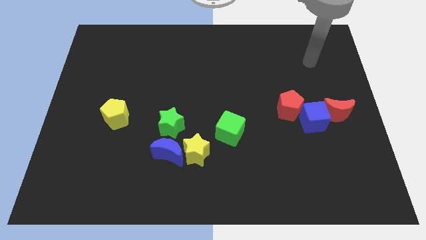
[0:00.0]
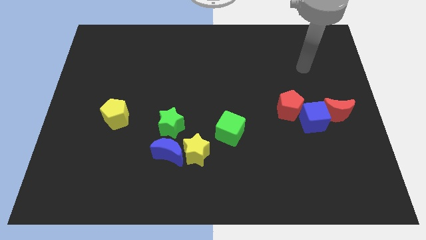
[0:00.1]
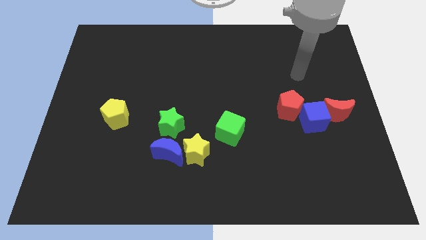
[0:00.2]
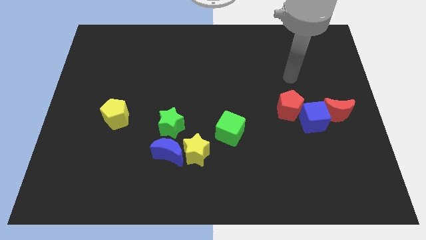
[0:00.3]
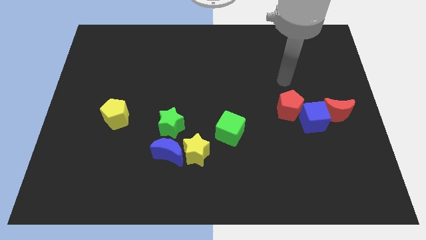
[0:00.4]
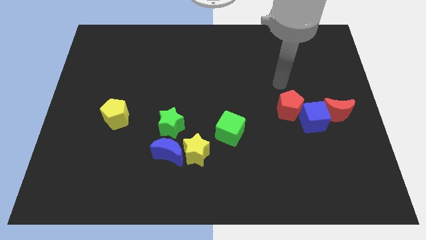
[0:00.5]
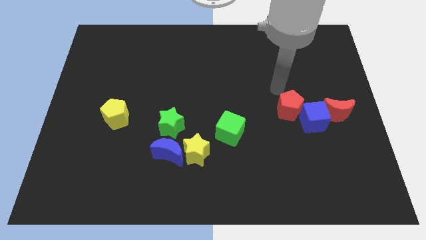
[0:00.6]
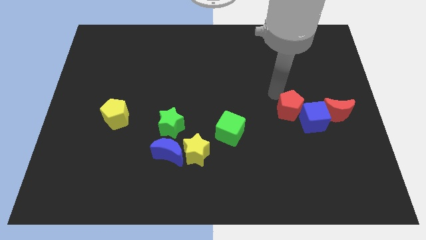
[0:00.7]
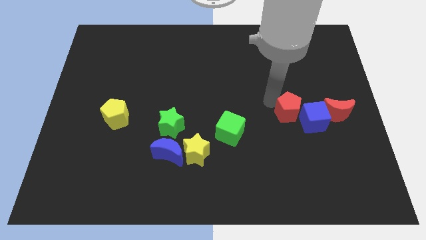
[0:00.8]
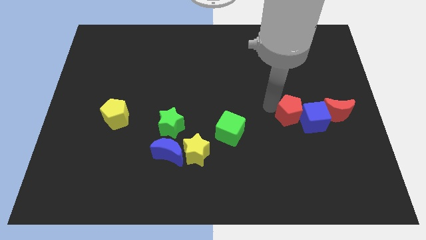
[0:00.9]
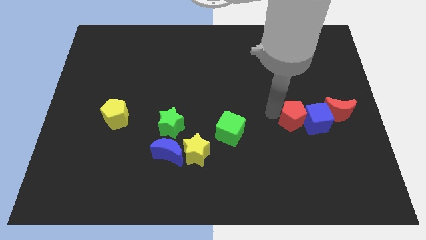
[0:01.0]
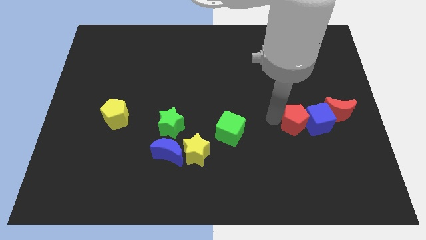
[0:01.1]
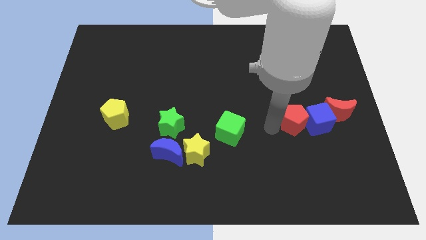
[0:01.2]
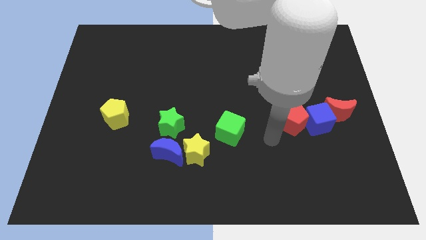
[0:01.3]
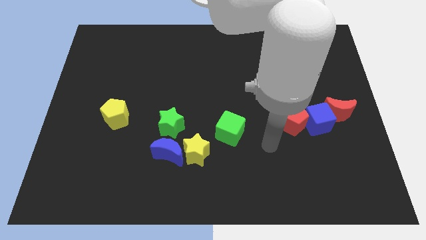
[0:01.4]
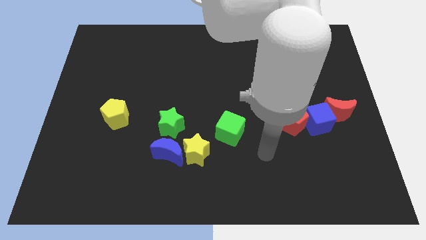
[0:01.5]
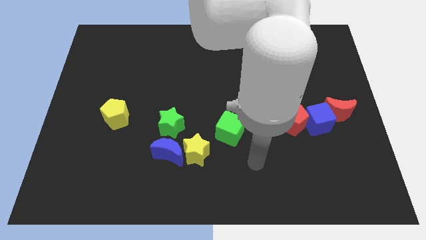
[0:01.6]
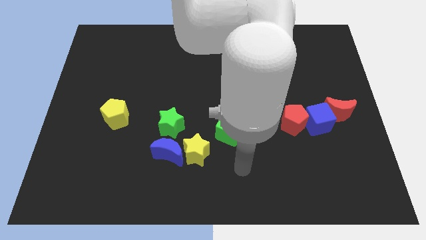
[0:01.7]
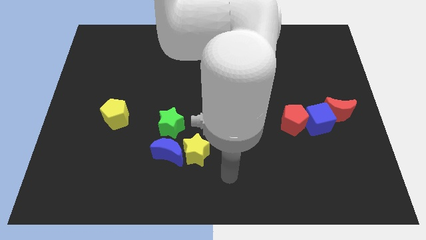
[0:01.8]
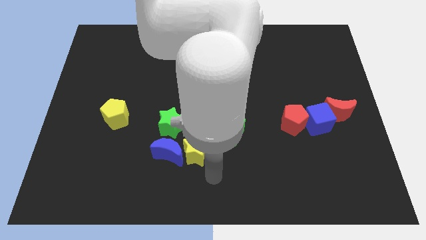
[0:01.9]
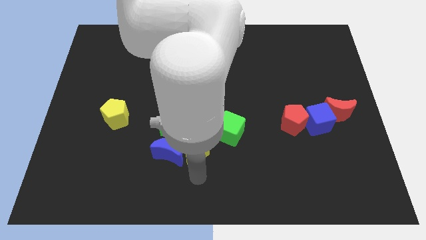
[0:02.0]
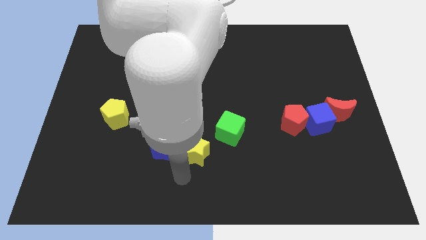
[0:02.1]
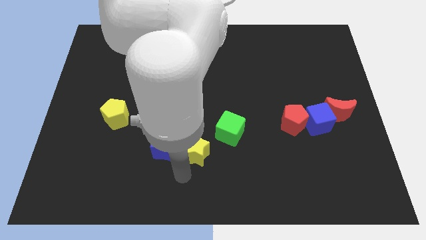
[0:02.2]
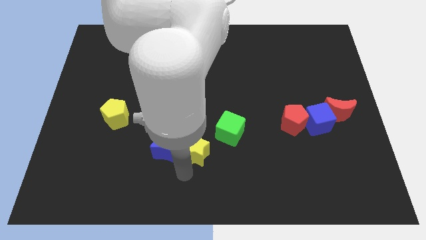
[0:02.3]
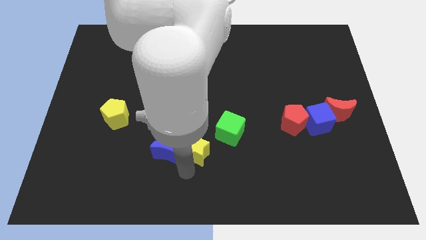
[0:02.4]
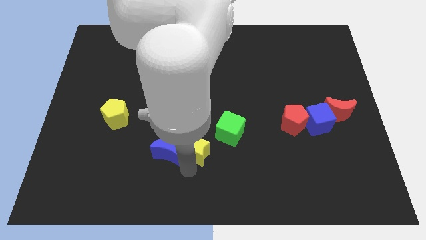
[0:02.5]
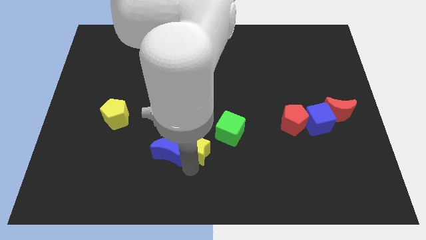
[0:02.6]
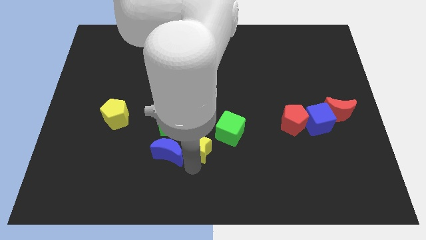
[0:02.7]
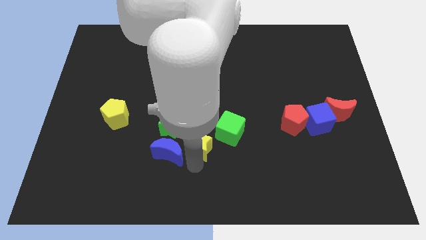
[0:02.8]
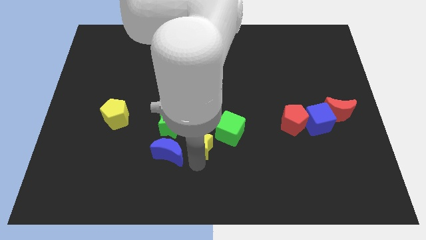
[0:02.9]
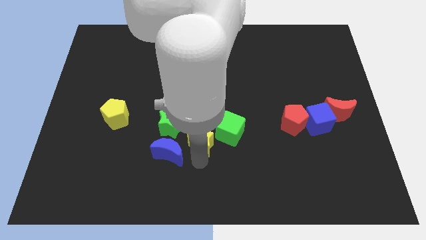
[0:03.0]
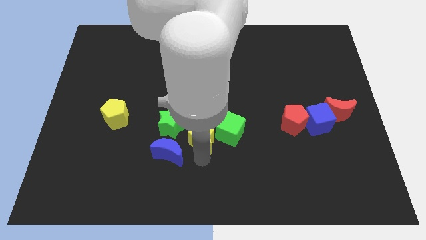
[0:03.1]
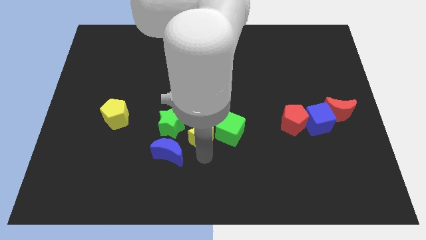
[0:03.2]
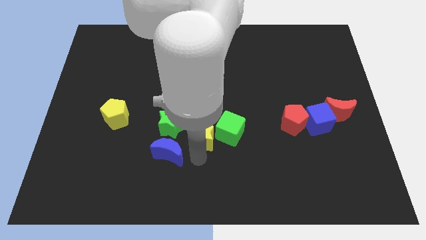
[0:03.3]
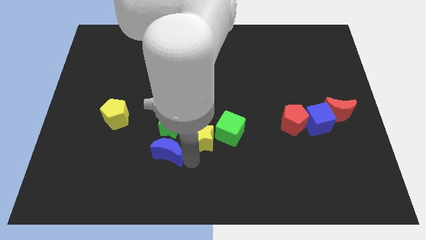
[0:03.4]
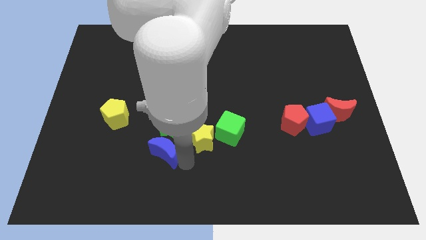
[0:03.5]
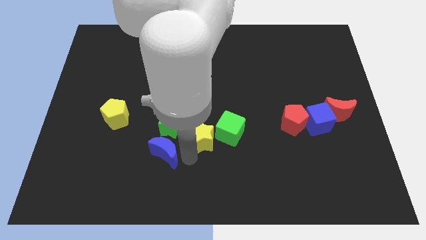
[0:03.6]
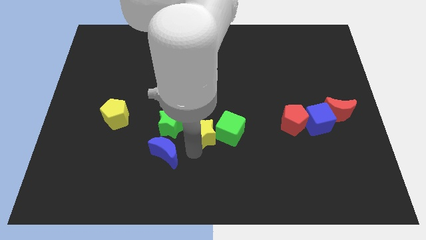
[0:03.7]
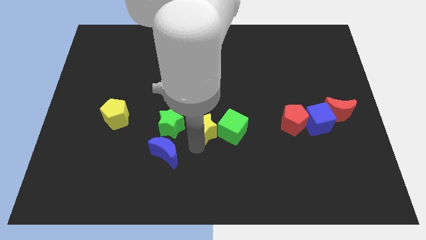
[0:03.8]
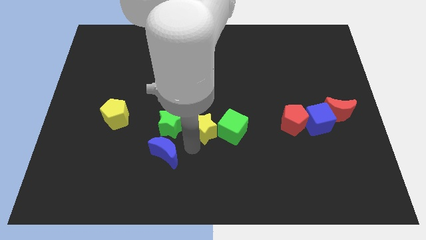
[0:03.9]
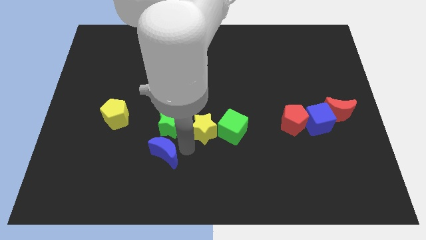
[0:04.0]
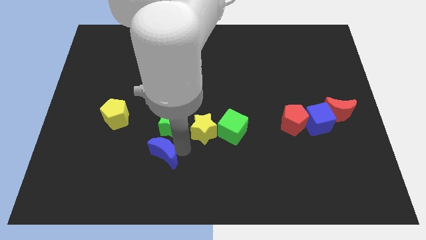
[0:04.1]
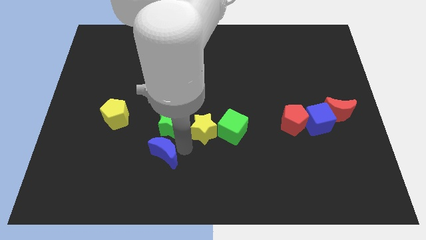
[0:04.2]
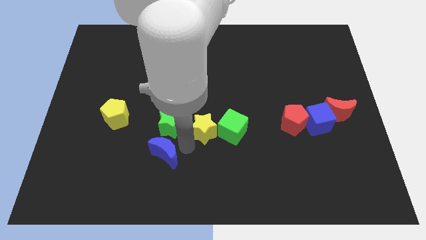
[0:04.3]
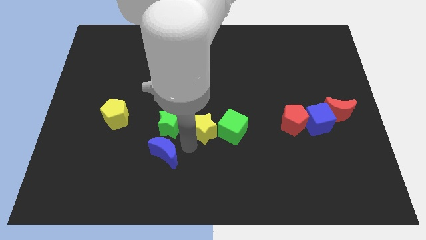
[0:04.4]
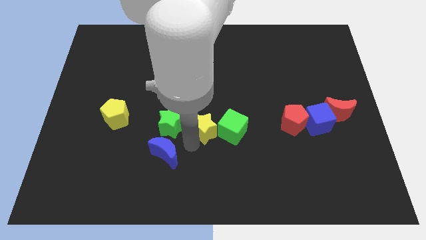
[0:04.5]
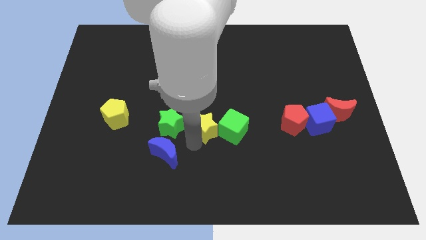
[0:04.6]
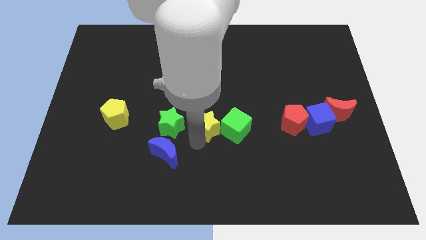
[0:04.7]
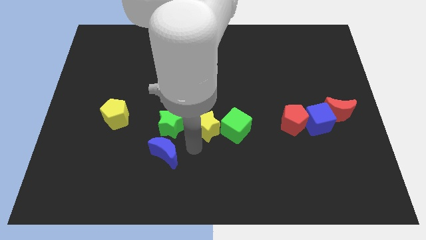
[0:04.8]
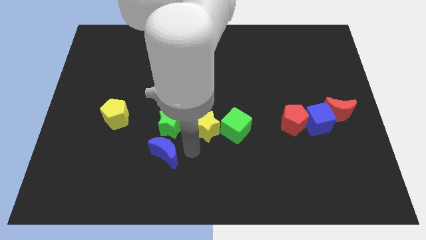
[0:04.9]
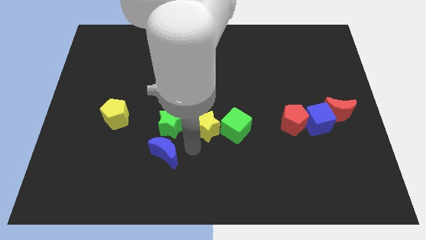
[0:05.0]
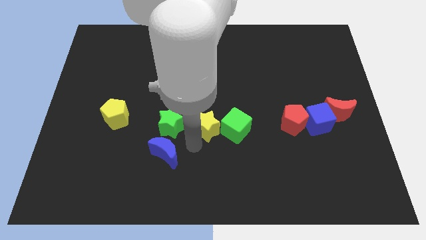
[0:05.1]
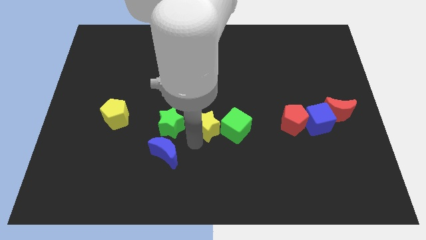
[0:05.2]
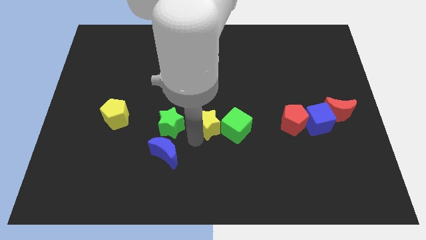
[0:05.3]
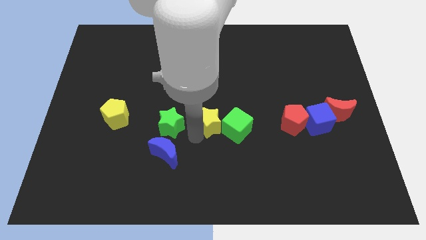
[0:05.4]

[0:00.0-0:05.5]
slightly slide the yellow star upwards and right diagonally

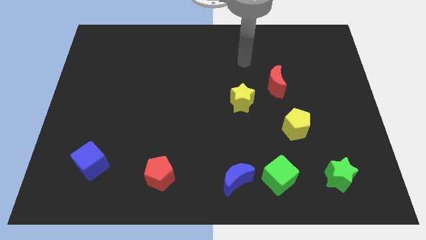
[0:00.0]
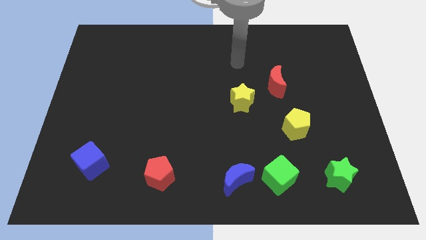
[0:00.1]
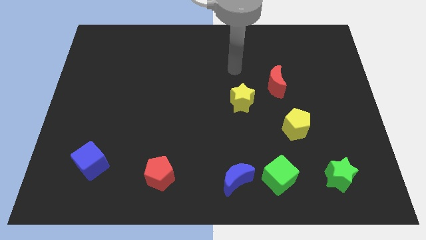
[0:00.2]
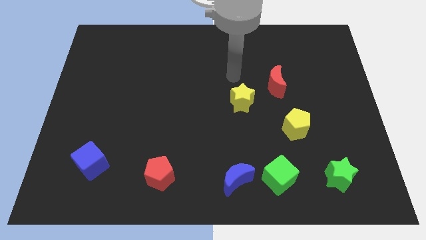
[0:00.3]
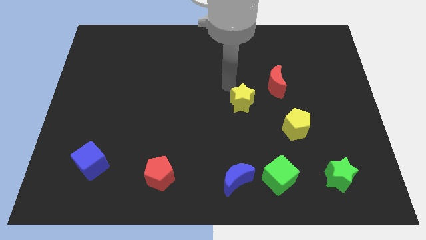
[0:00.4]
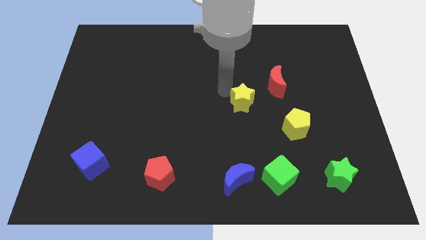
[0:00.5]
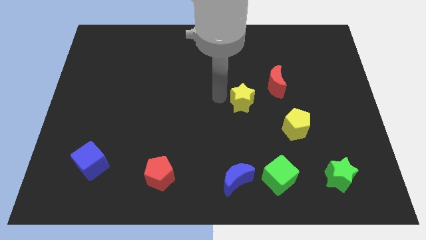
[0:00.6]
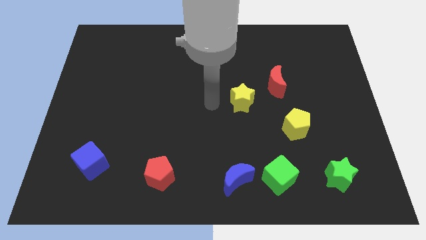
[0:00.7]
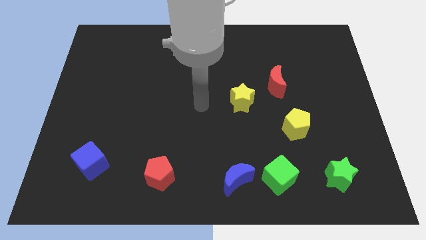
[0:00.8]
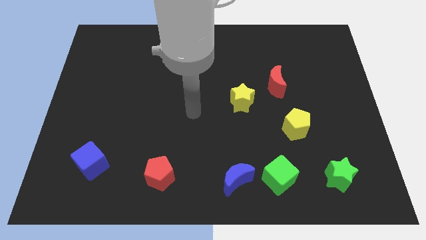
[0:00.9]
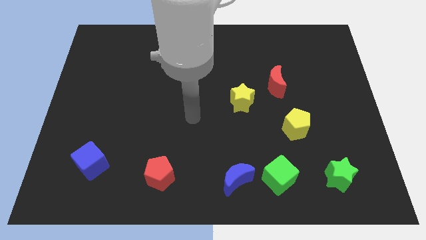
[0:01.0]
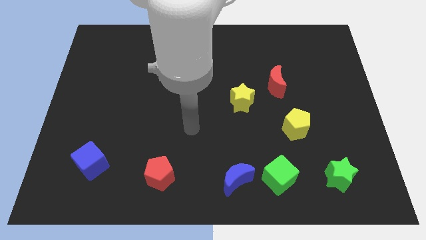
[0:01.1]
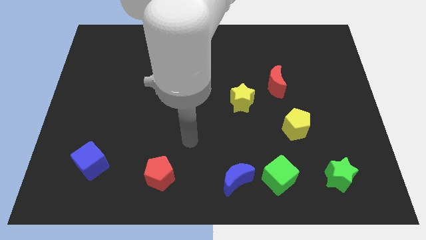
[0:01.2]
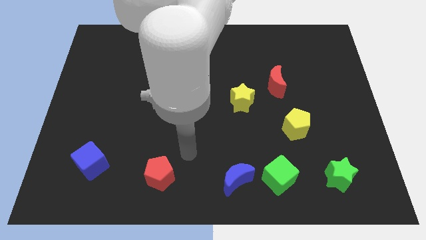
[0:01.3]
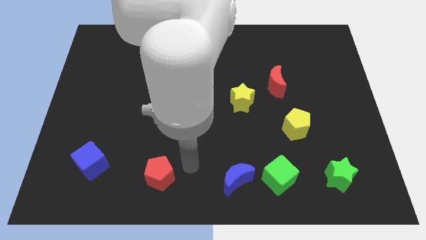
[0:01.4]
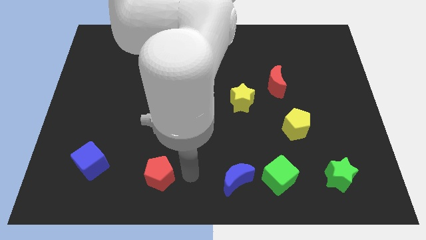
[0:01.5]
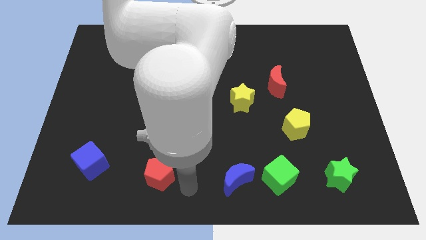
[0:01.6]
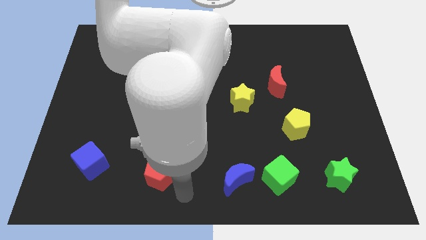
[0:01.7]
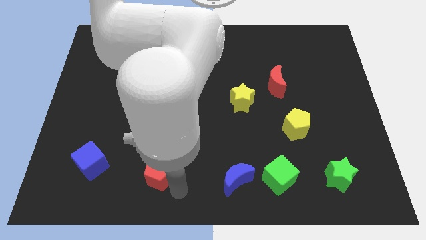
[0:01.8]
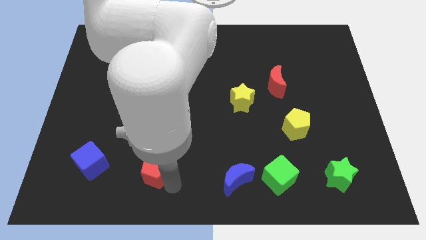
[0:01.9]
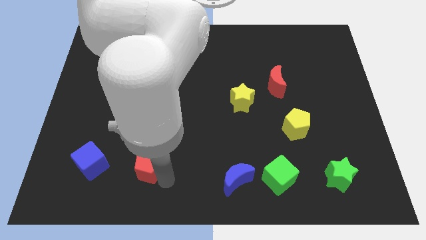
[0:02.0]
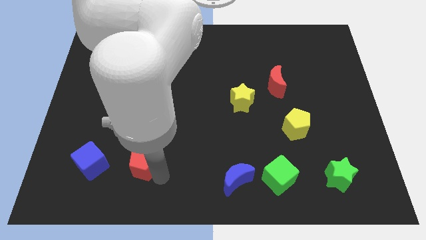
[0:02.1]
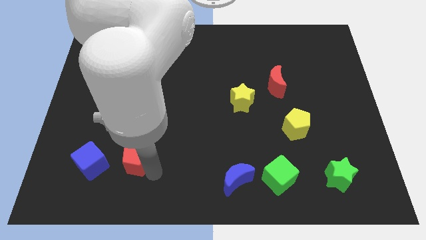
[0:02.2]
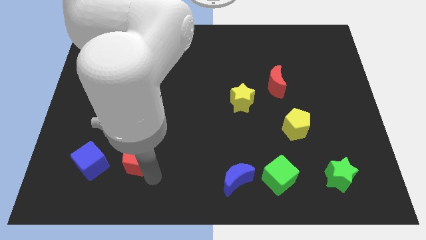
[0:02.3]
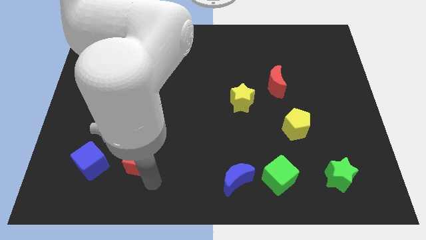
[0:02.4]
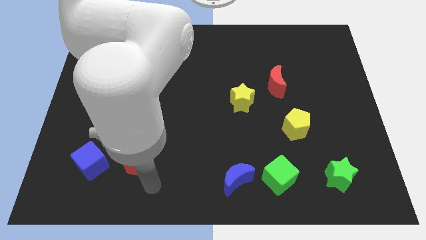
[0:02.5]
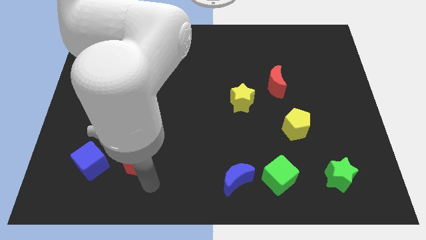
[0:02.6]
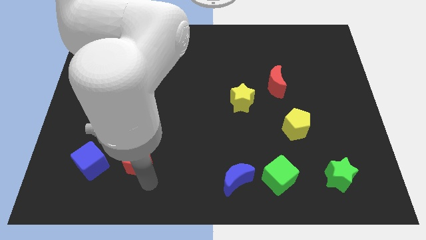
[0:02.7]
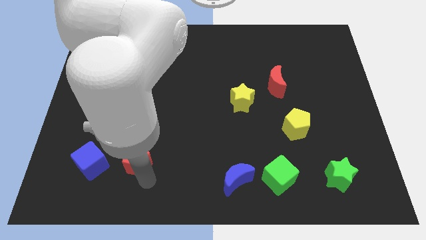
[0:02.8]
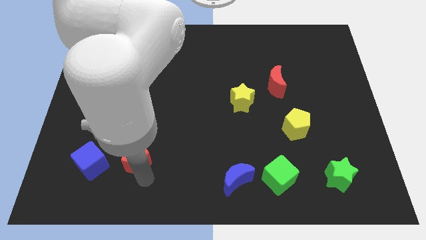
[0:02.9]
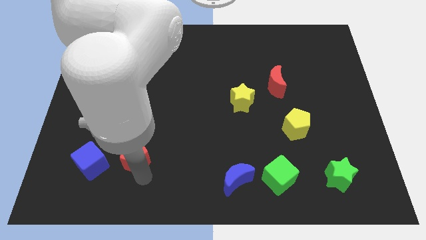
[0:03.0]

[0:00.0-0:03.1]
push the red pentagon somewhat up and then to the left
